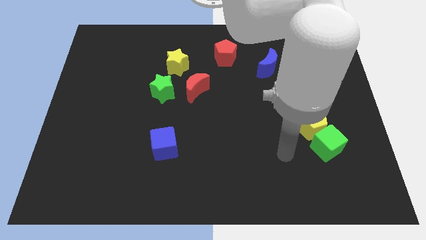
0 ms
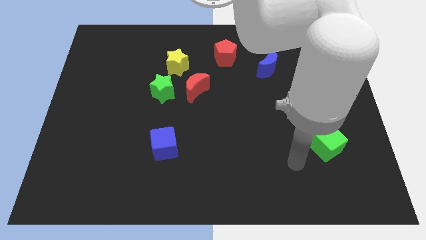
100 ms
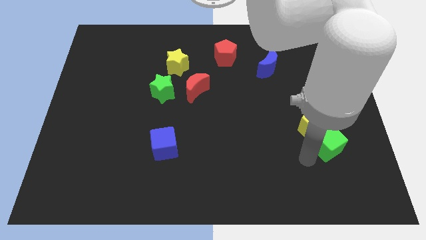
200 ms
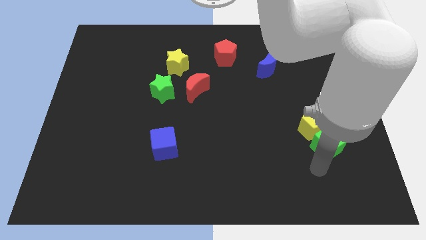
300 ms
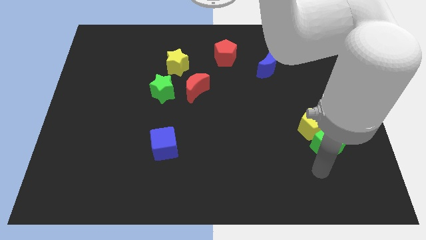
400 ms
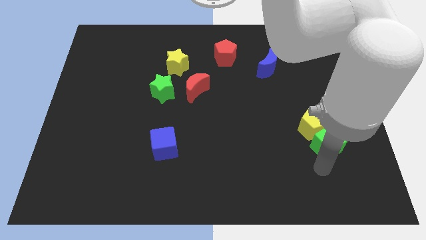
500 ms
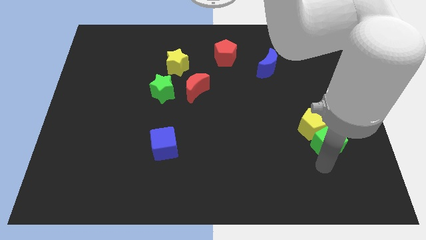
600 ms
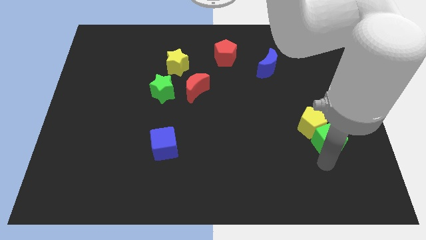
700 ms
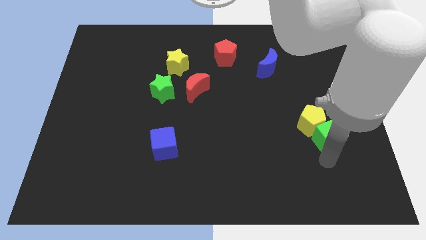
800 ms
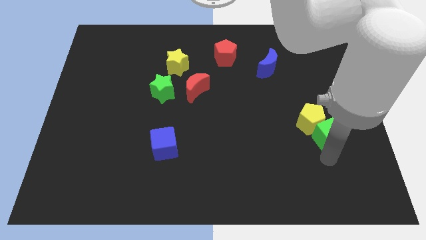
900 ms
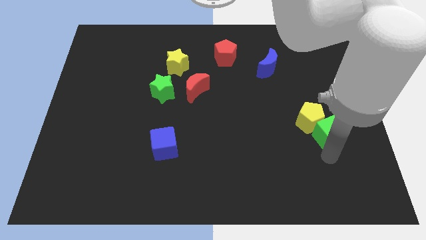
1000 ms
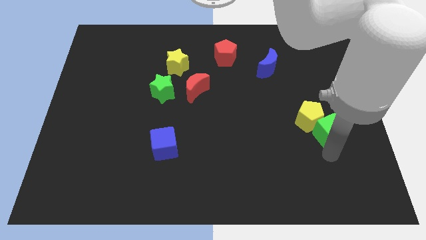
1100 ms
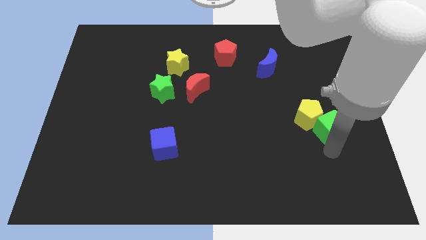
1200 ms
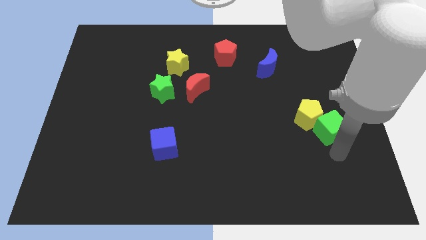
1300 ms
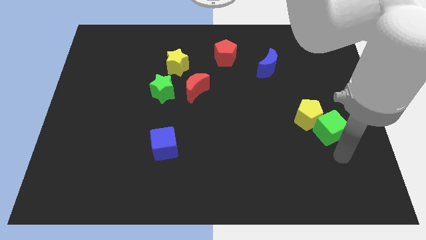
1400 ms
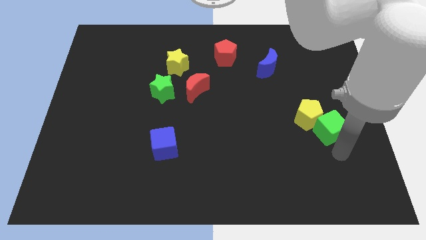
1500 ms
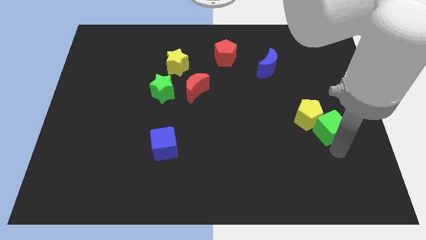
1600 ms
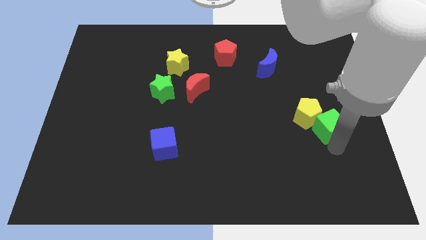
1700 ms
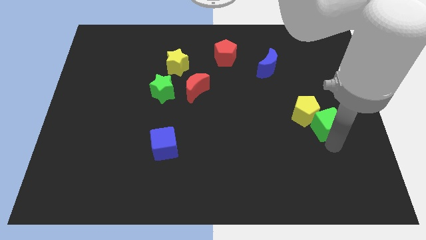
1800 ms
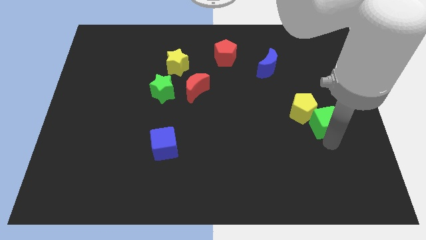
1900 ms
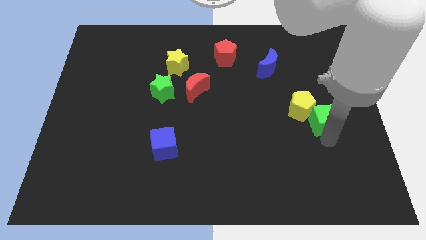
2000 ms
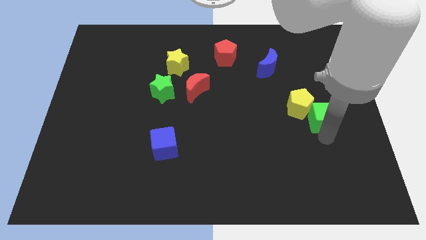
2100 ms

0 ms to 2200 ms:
push the green cube upwards a bit

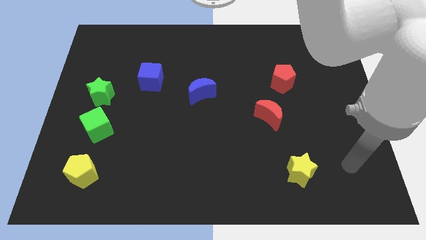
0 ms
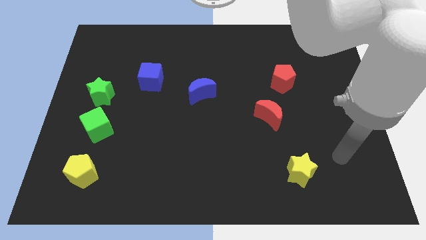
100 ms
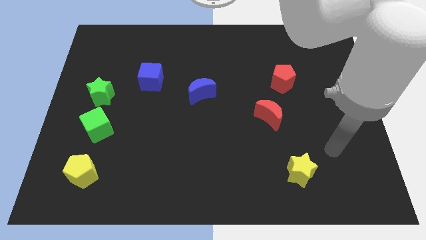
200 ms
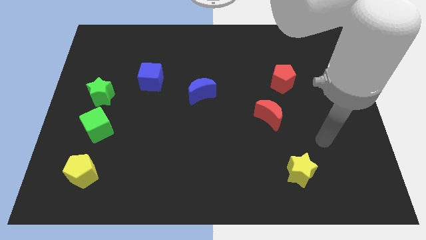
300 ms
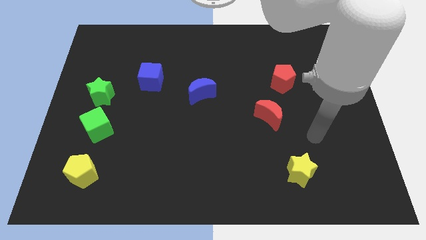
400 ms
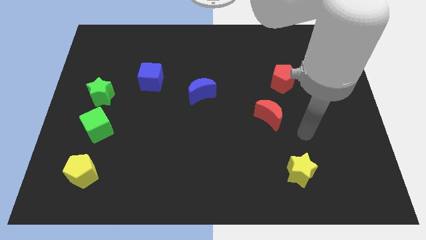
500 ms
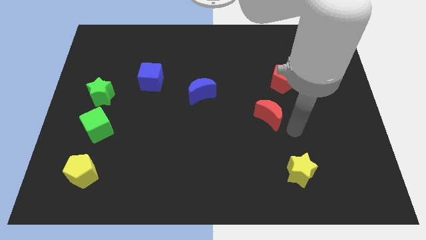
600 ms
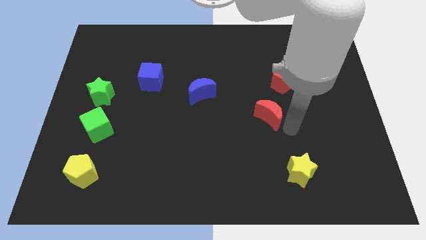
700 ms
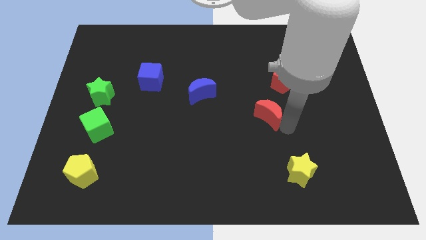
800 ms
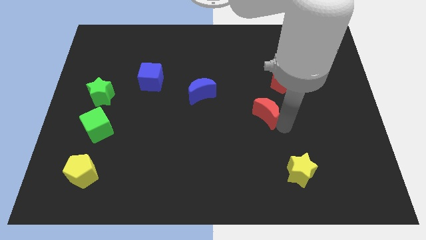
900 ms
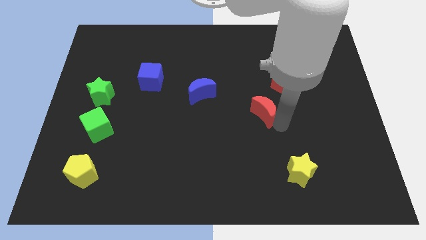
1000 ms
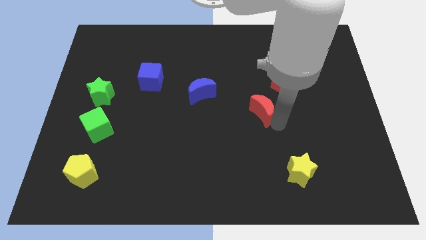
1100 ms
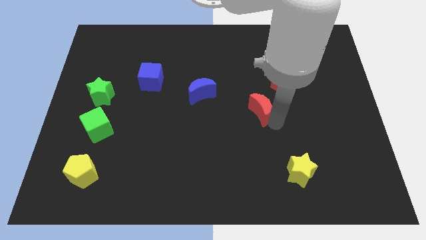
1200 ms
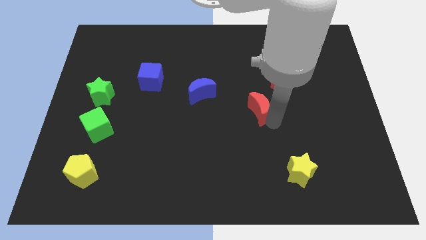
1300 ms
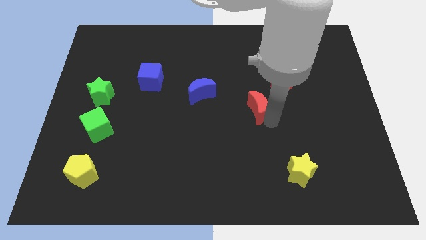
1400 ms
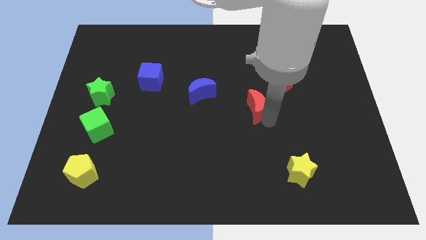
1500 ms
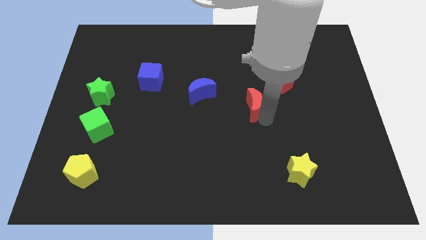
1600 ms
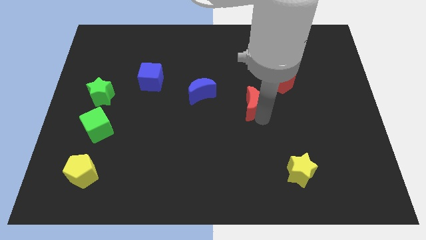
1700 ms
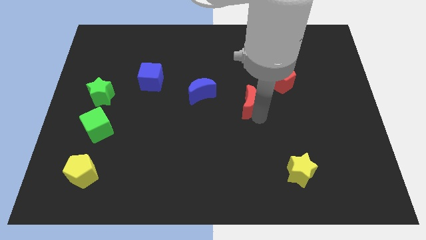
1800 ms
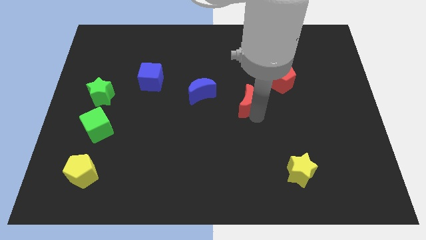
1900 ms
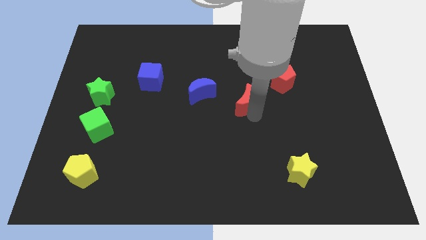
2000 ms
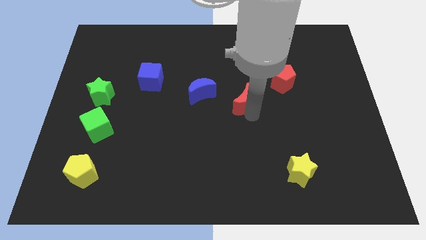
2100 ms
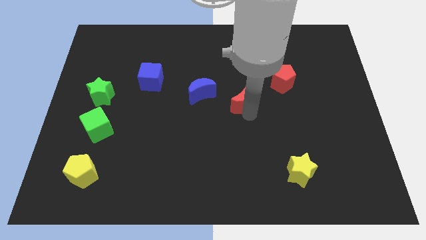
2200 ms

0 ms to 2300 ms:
move the red moon up and left a bit

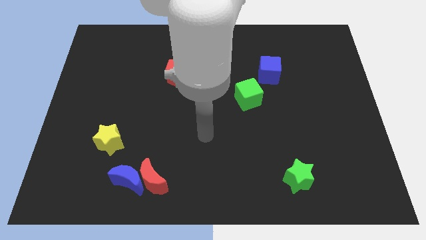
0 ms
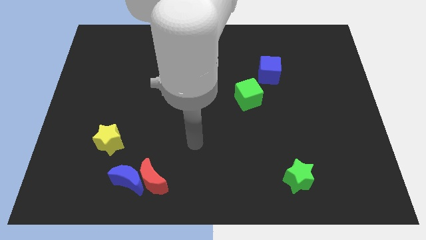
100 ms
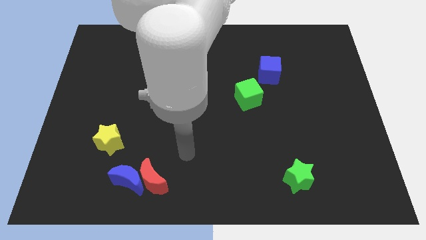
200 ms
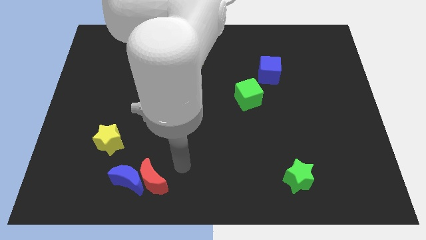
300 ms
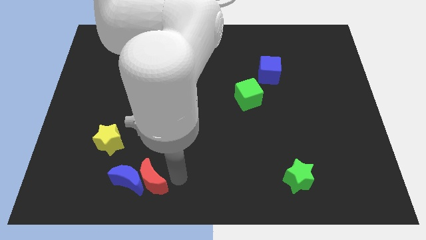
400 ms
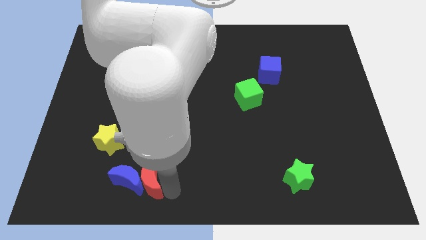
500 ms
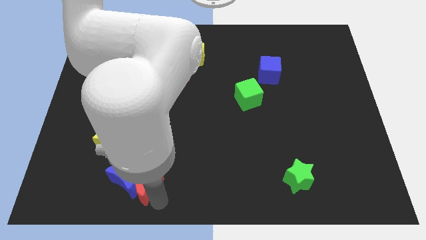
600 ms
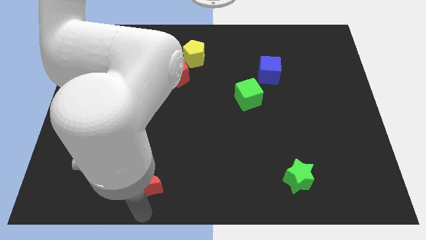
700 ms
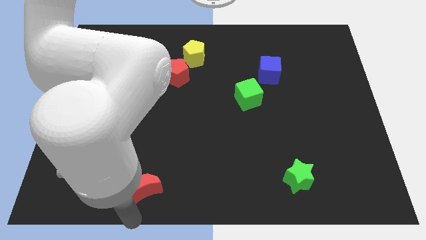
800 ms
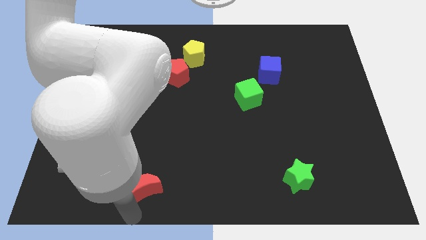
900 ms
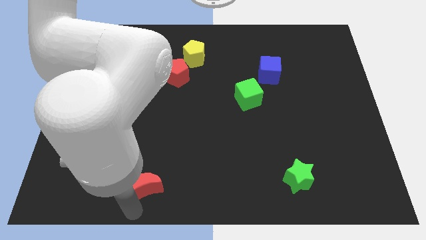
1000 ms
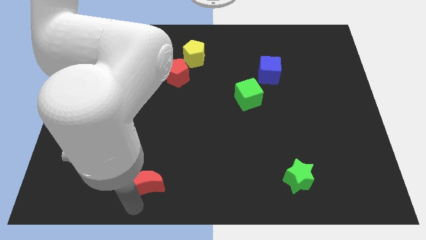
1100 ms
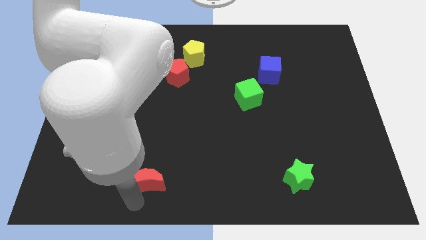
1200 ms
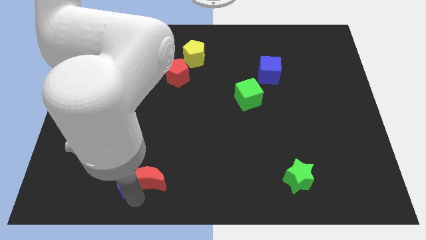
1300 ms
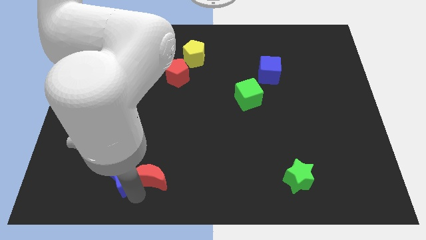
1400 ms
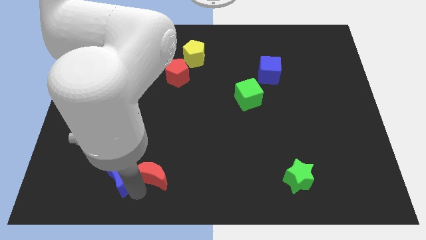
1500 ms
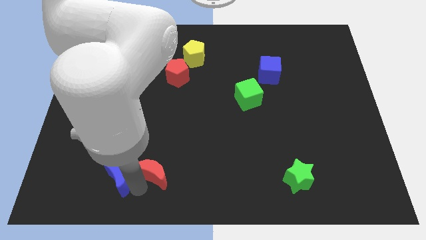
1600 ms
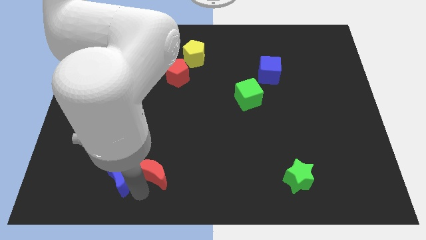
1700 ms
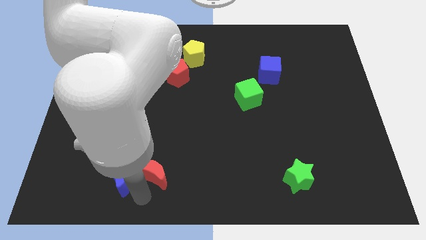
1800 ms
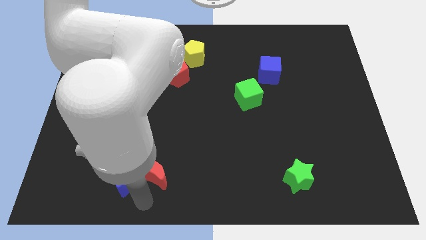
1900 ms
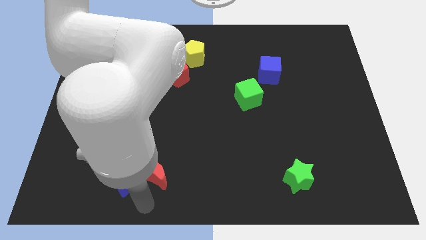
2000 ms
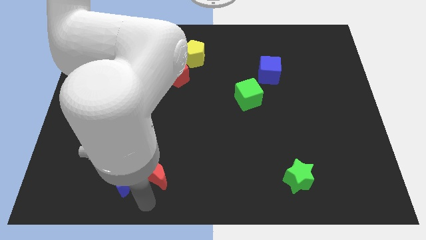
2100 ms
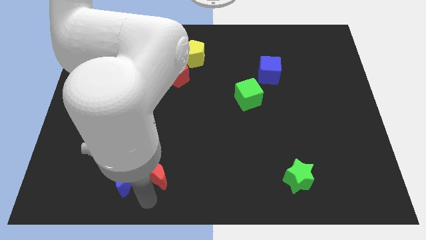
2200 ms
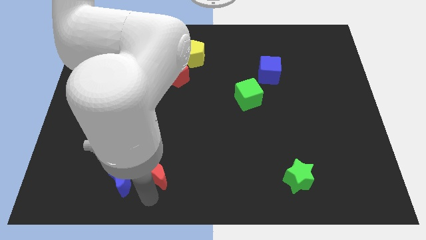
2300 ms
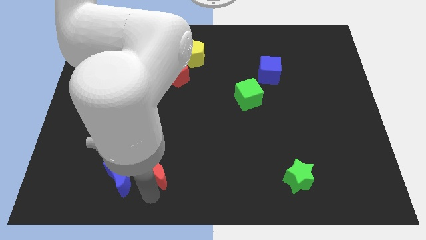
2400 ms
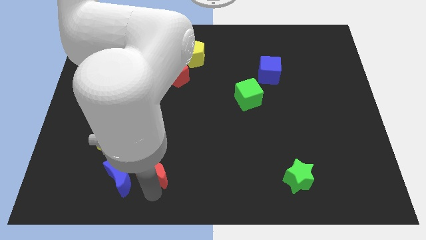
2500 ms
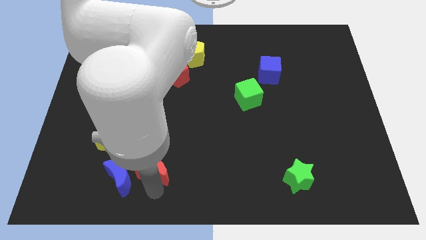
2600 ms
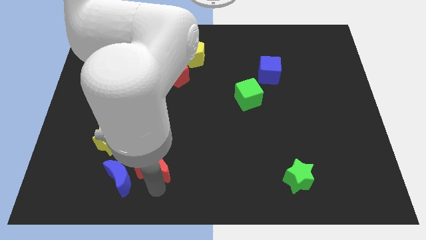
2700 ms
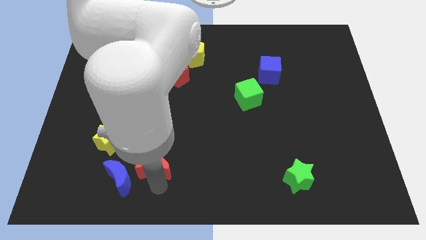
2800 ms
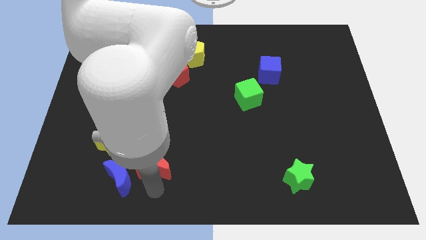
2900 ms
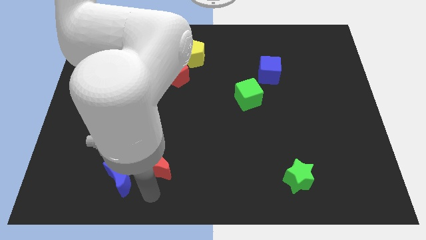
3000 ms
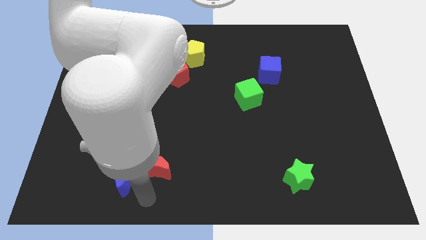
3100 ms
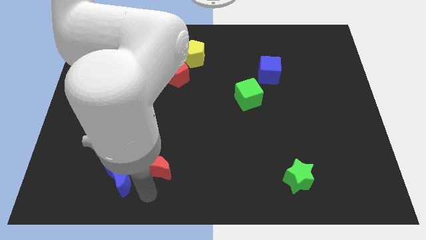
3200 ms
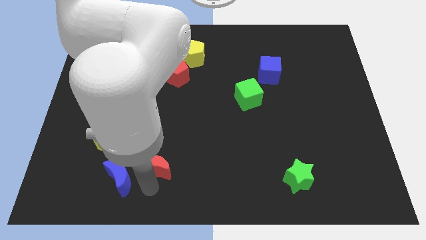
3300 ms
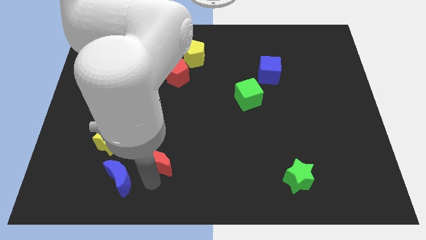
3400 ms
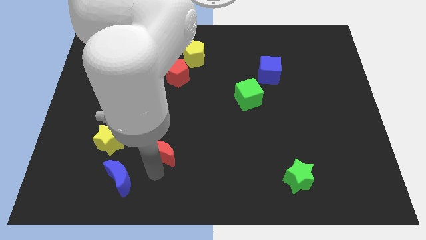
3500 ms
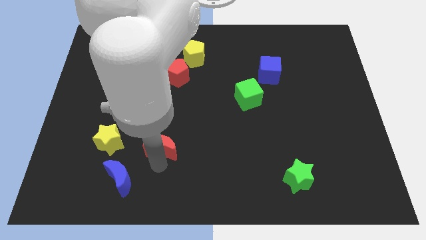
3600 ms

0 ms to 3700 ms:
push the red moon a little upwards
